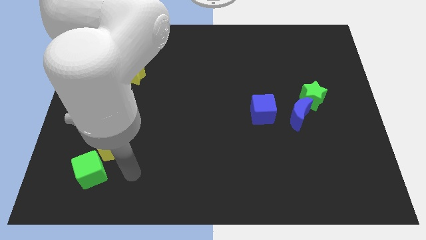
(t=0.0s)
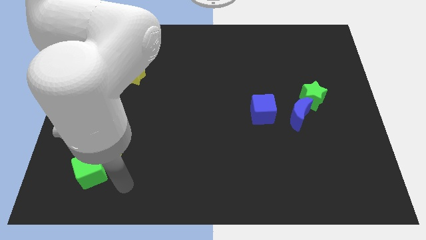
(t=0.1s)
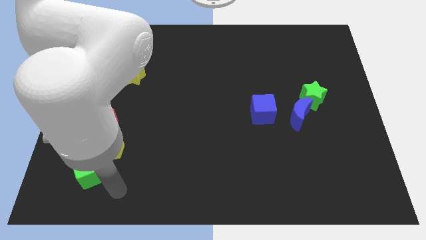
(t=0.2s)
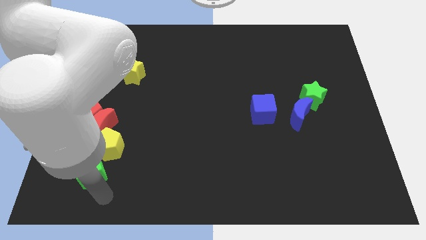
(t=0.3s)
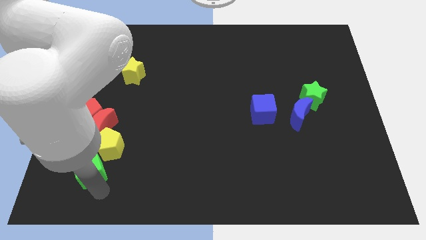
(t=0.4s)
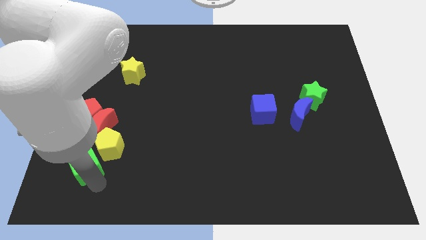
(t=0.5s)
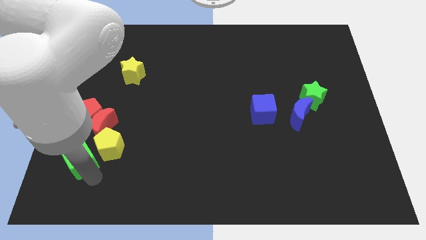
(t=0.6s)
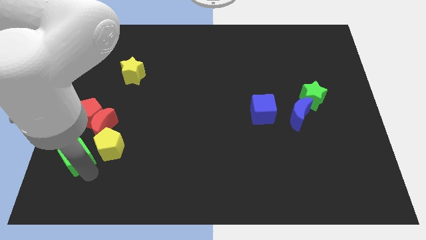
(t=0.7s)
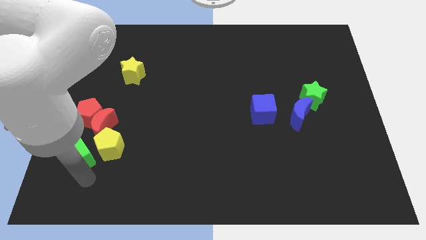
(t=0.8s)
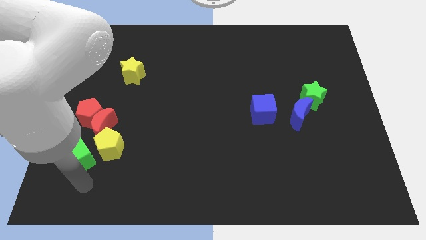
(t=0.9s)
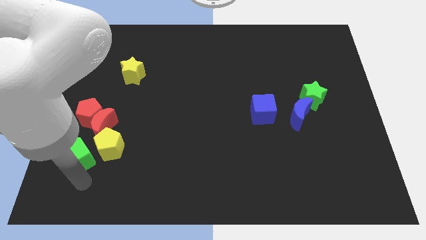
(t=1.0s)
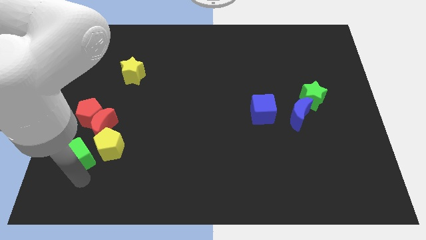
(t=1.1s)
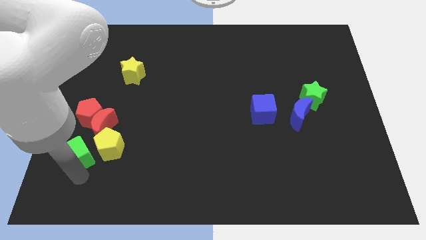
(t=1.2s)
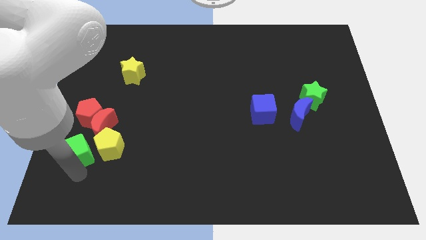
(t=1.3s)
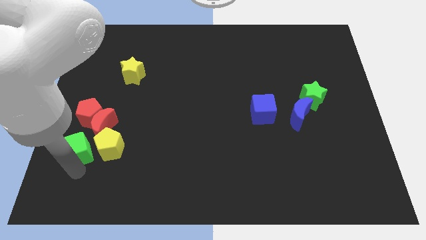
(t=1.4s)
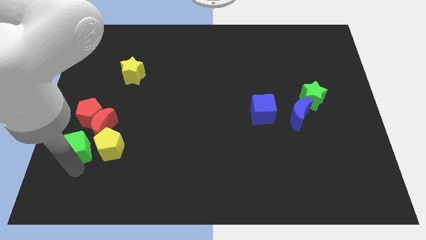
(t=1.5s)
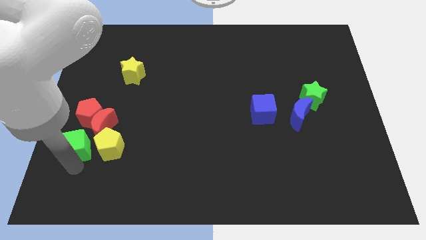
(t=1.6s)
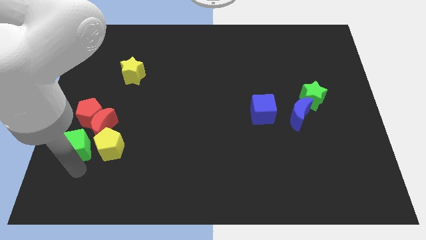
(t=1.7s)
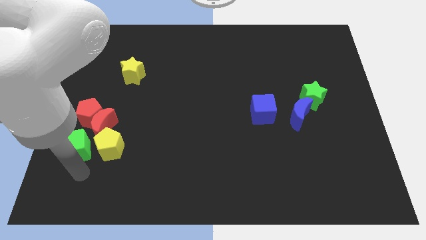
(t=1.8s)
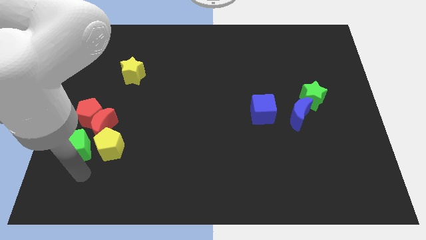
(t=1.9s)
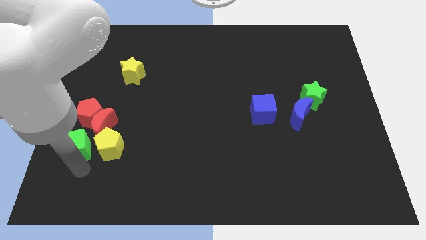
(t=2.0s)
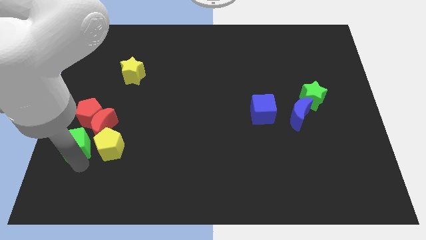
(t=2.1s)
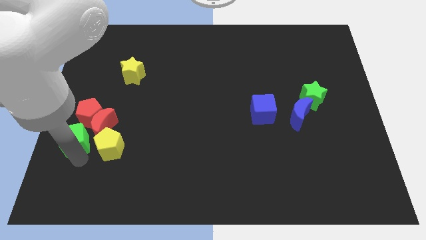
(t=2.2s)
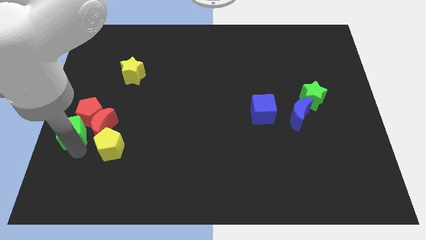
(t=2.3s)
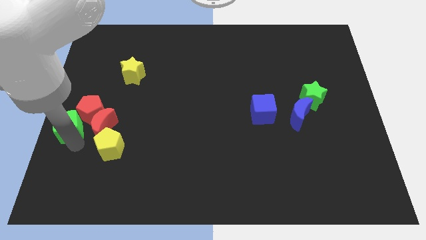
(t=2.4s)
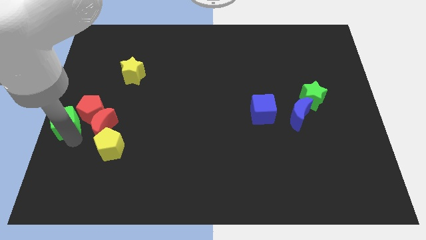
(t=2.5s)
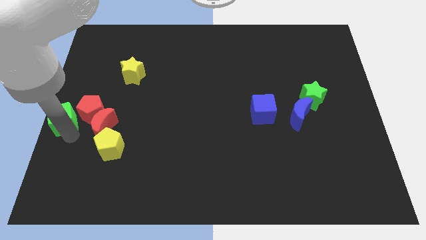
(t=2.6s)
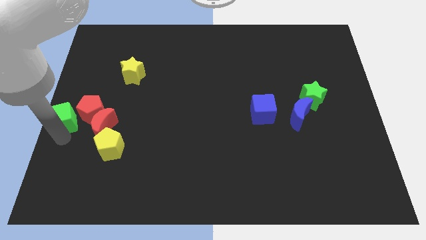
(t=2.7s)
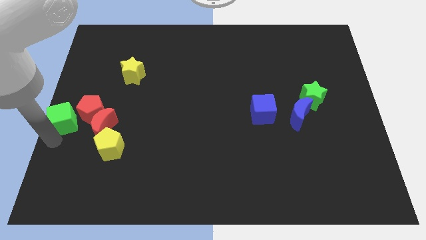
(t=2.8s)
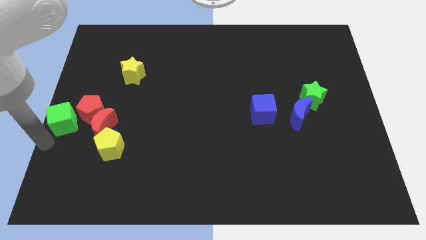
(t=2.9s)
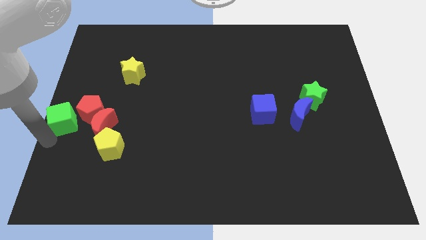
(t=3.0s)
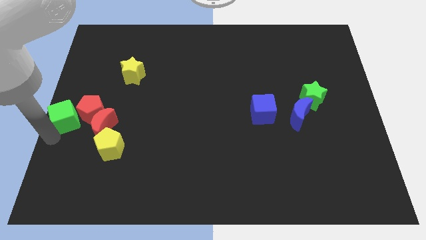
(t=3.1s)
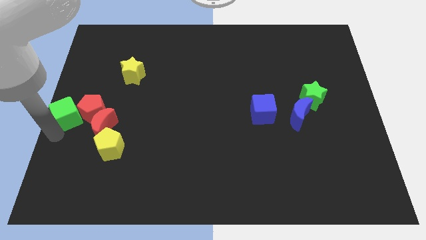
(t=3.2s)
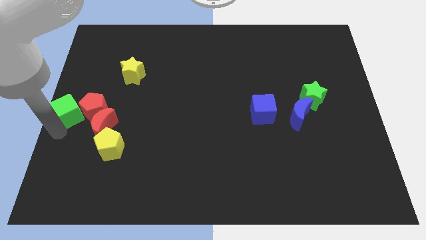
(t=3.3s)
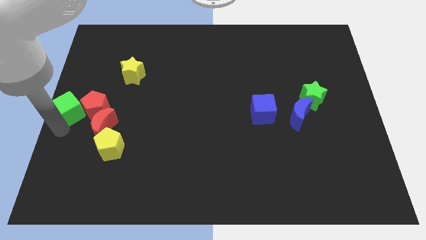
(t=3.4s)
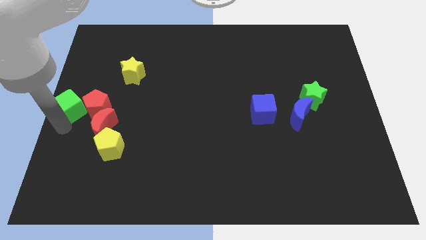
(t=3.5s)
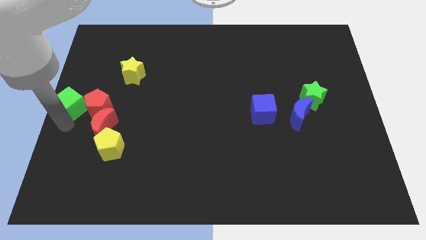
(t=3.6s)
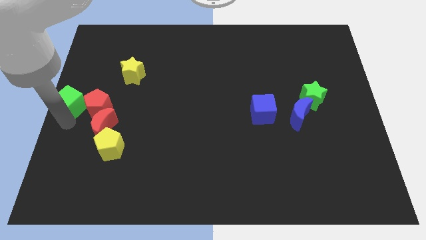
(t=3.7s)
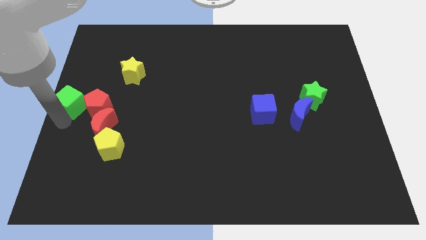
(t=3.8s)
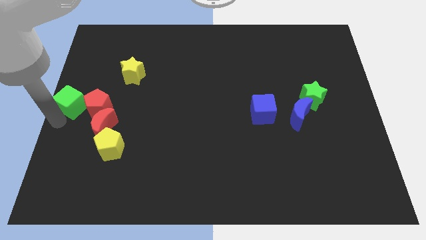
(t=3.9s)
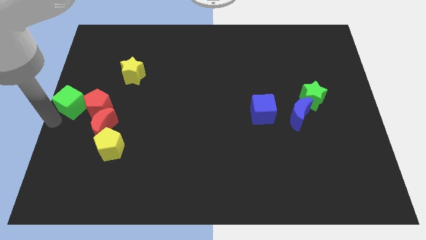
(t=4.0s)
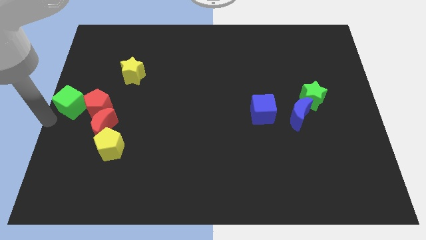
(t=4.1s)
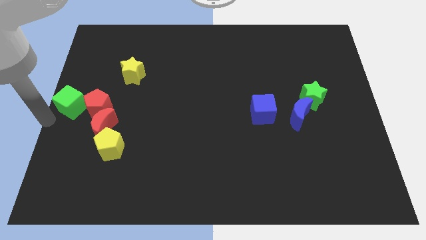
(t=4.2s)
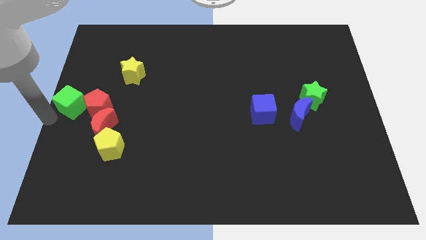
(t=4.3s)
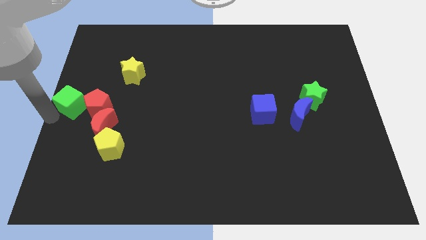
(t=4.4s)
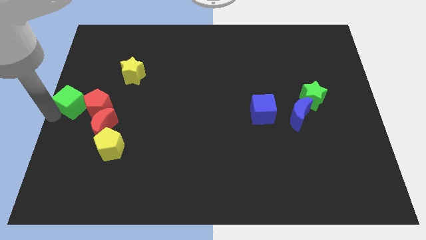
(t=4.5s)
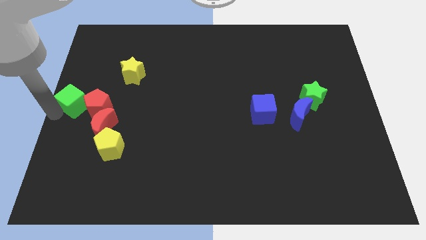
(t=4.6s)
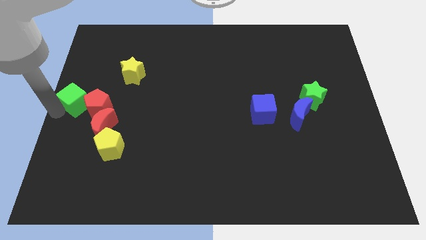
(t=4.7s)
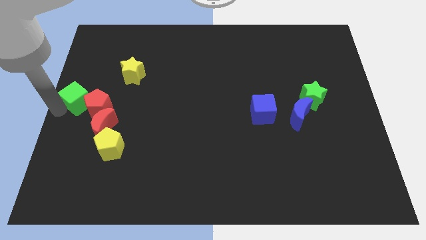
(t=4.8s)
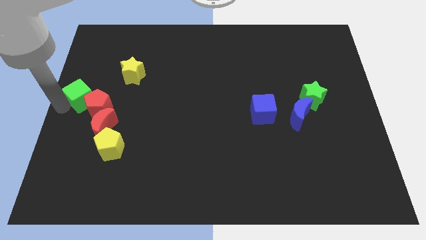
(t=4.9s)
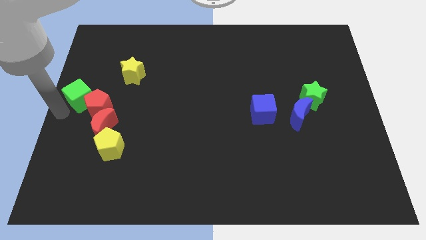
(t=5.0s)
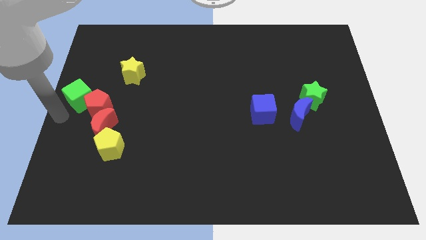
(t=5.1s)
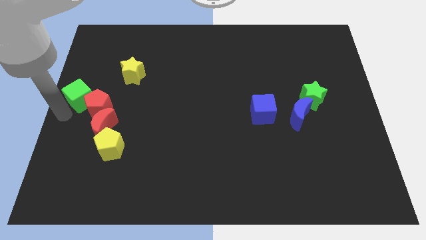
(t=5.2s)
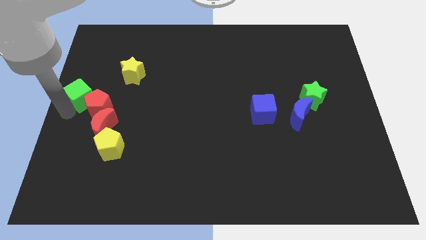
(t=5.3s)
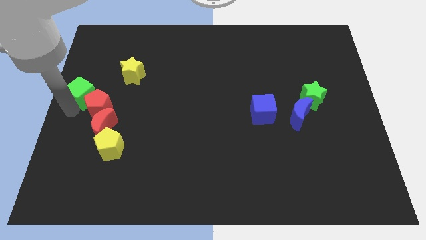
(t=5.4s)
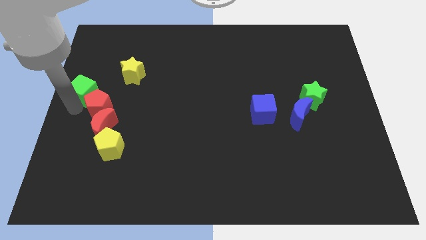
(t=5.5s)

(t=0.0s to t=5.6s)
move the green cube to the top of the red pentagon
